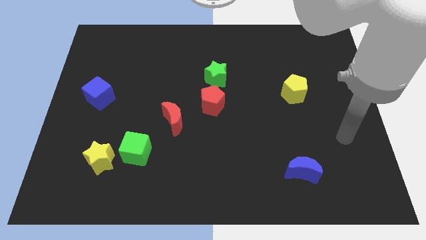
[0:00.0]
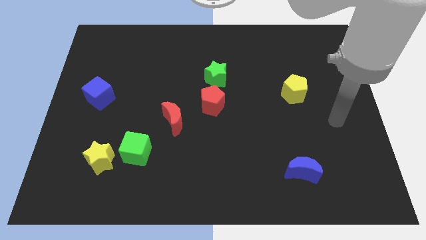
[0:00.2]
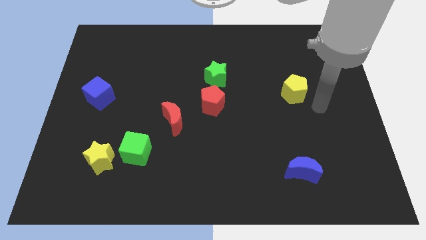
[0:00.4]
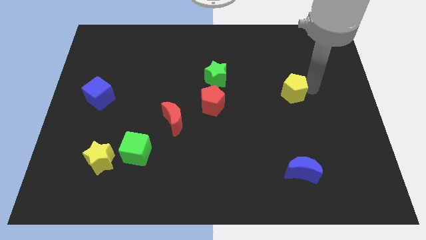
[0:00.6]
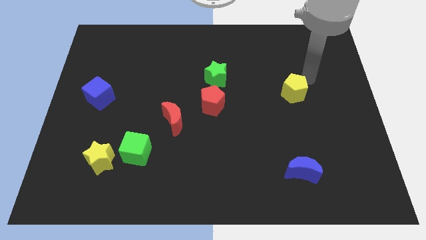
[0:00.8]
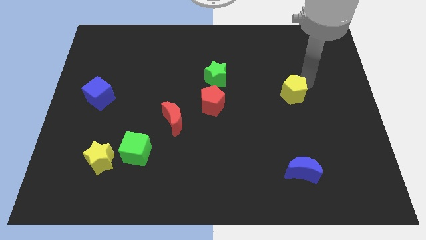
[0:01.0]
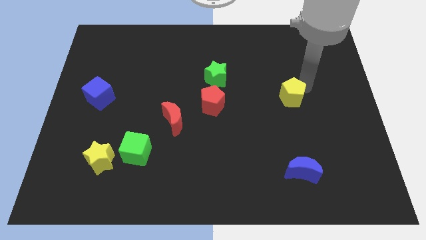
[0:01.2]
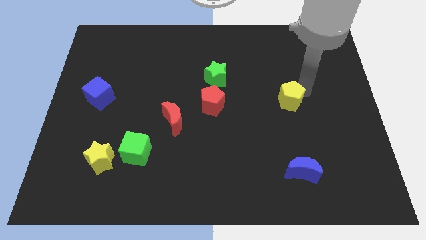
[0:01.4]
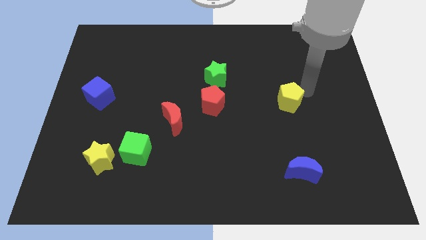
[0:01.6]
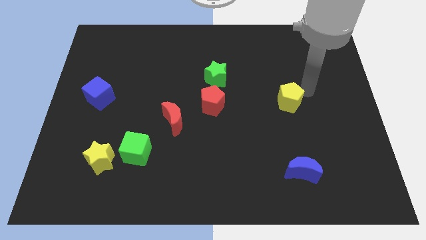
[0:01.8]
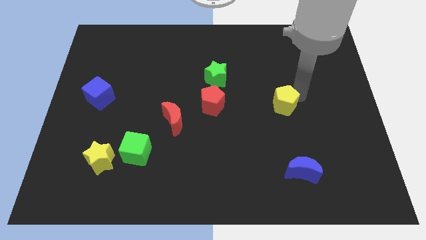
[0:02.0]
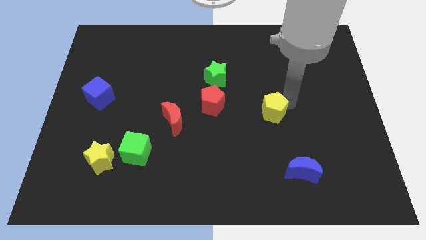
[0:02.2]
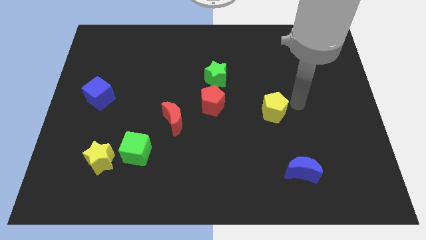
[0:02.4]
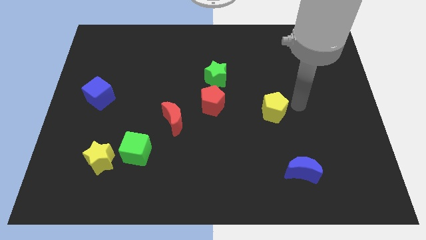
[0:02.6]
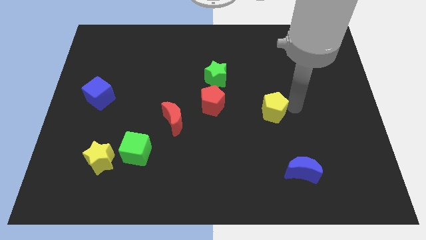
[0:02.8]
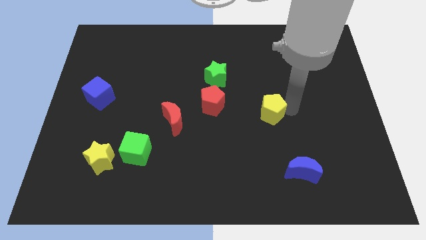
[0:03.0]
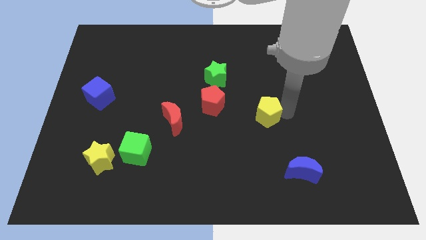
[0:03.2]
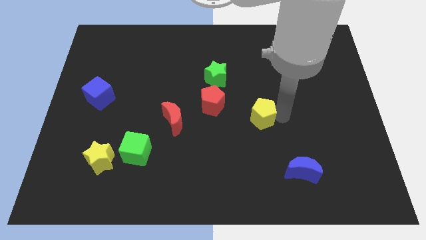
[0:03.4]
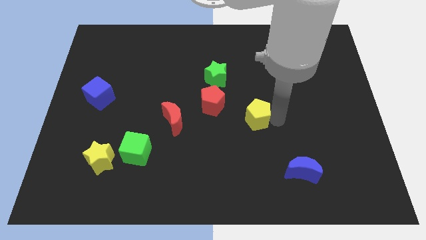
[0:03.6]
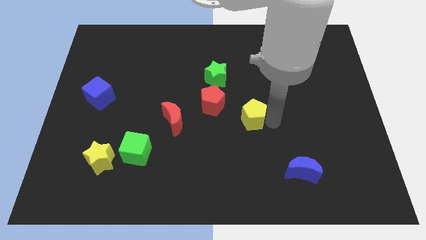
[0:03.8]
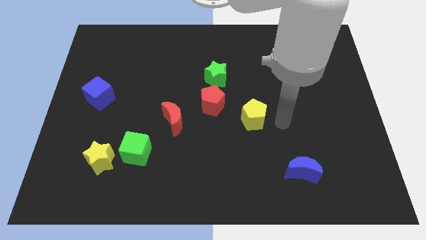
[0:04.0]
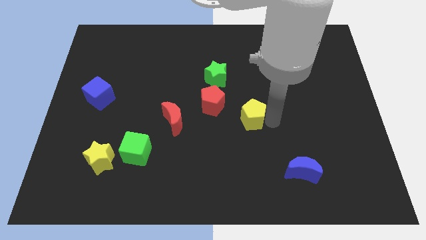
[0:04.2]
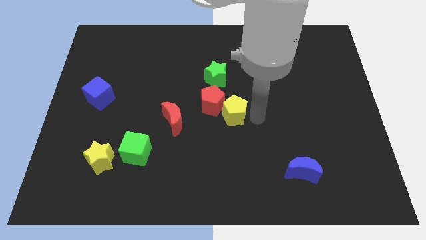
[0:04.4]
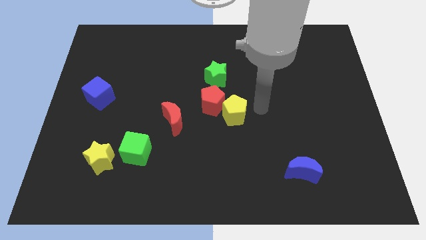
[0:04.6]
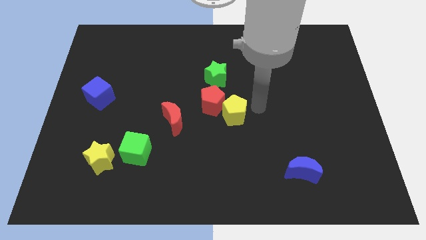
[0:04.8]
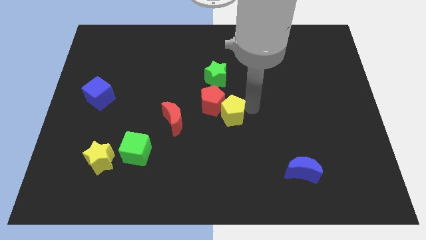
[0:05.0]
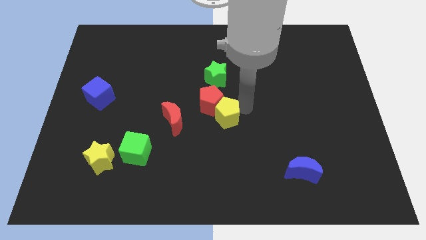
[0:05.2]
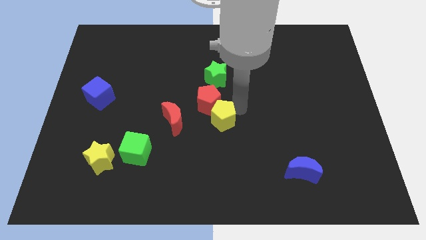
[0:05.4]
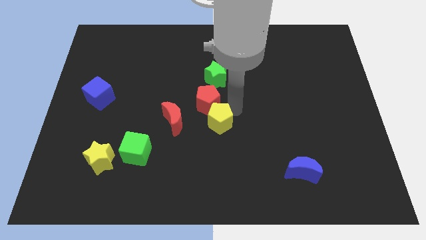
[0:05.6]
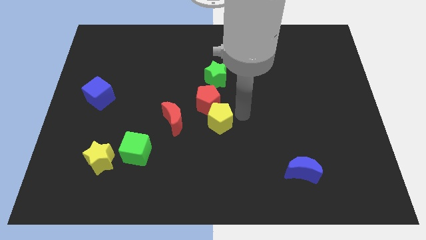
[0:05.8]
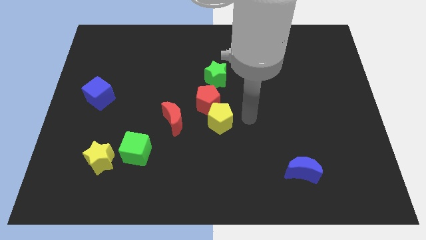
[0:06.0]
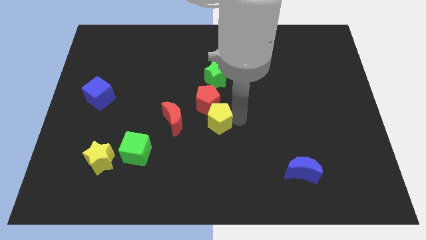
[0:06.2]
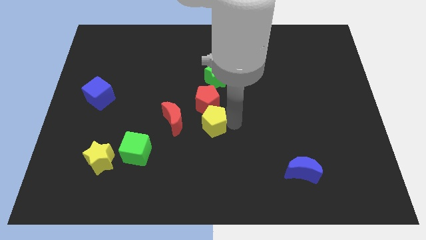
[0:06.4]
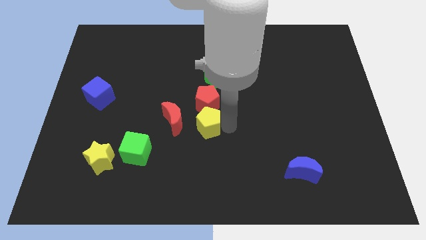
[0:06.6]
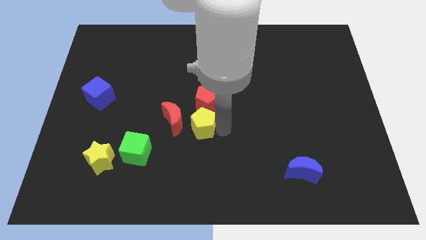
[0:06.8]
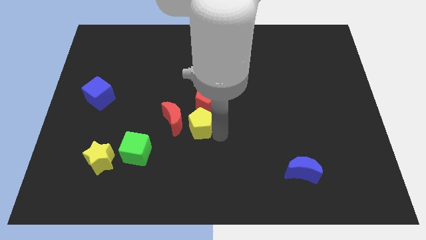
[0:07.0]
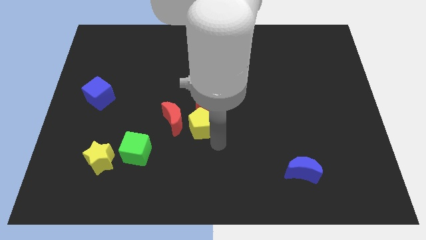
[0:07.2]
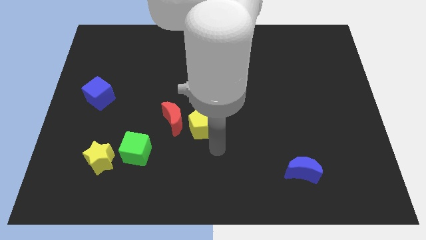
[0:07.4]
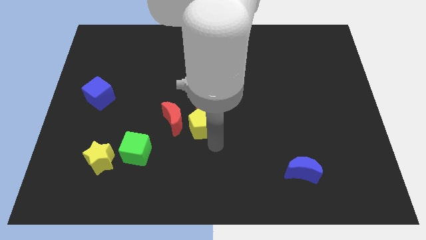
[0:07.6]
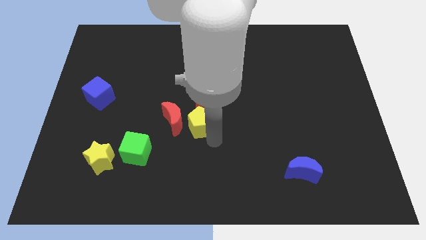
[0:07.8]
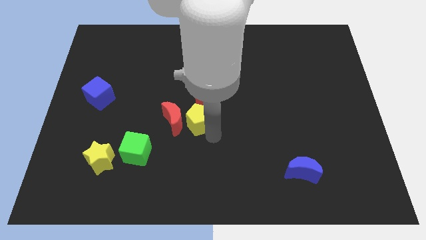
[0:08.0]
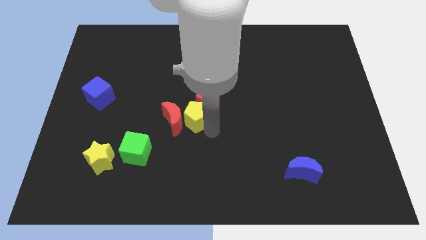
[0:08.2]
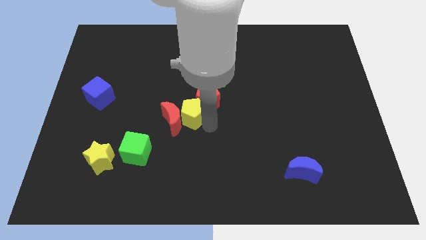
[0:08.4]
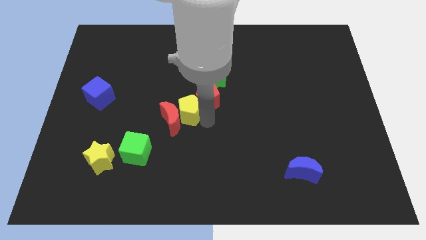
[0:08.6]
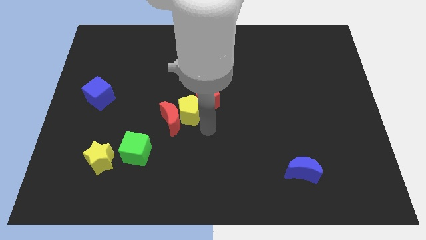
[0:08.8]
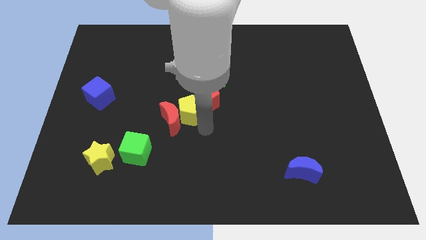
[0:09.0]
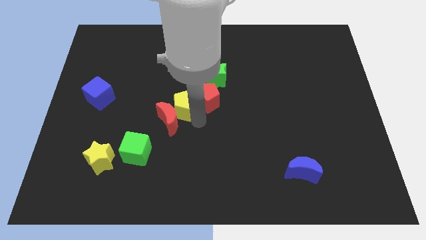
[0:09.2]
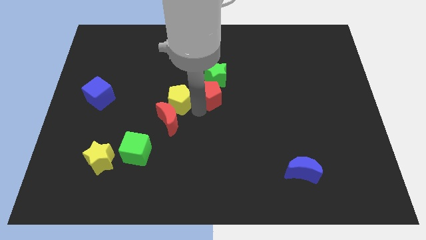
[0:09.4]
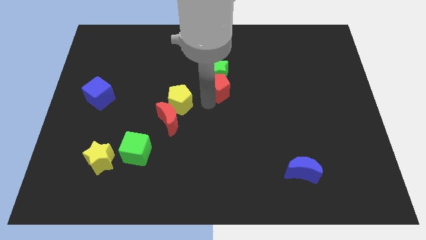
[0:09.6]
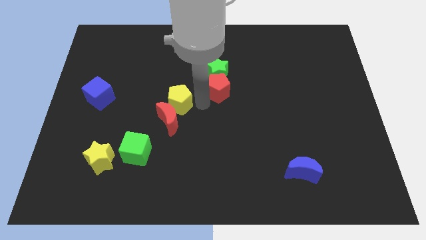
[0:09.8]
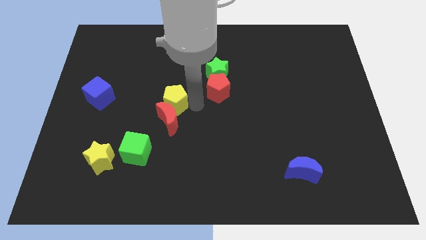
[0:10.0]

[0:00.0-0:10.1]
put the yellow pentagon diagonally up and to the left of the red moon

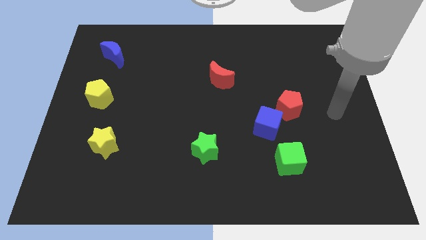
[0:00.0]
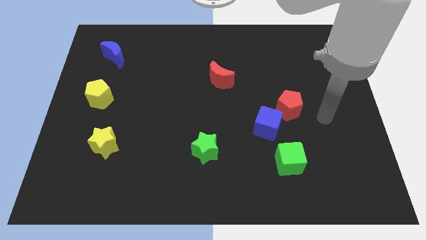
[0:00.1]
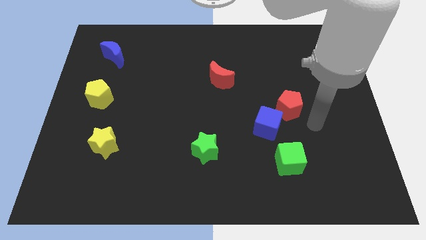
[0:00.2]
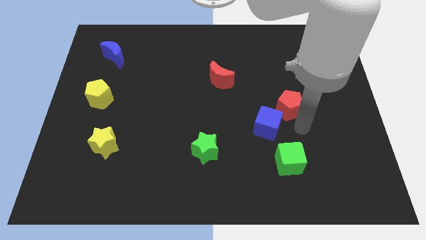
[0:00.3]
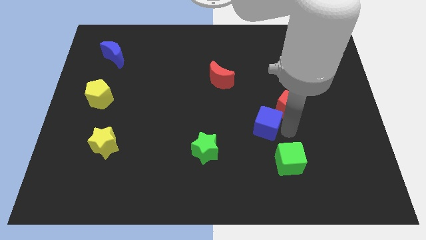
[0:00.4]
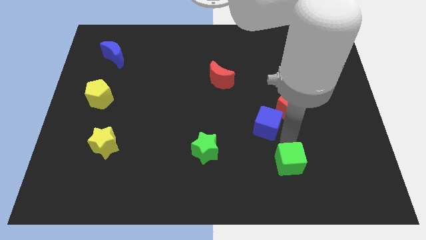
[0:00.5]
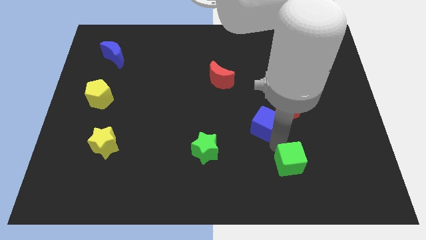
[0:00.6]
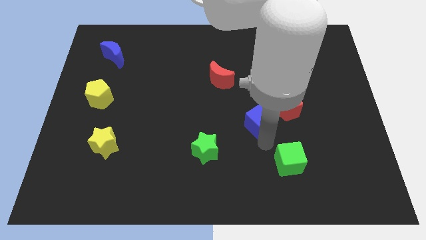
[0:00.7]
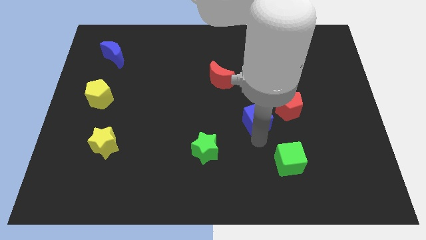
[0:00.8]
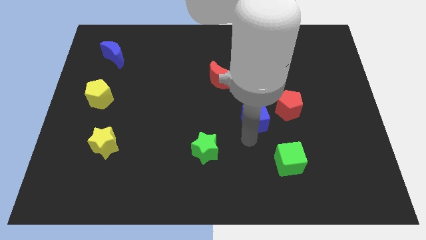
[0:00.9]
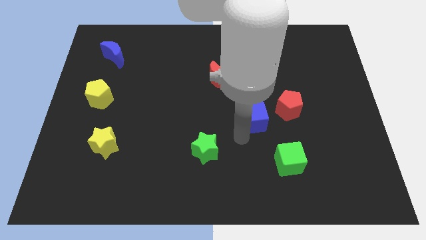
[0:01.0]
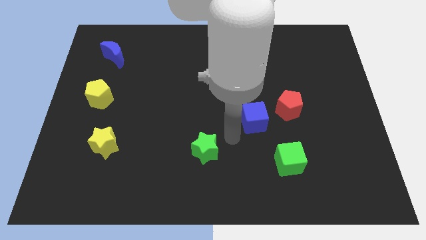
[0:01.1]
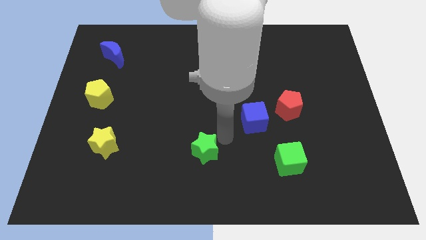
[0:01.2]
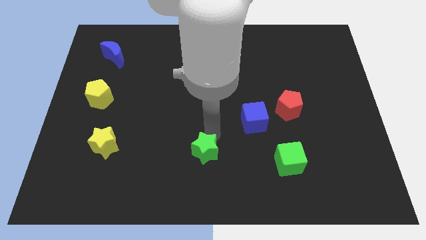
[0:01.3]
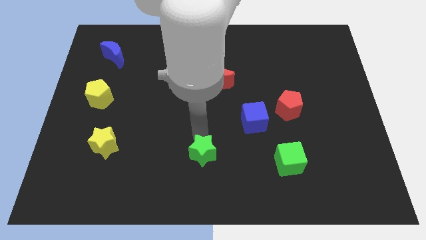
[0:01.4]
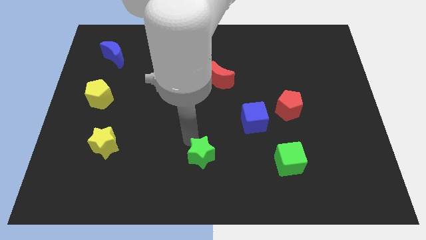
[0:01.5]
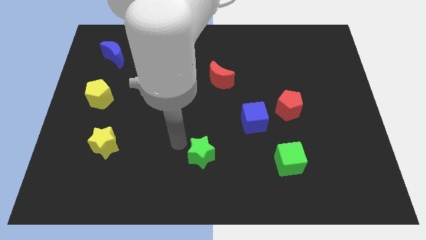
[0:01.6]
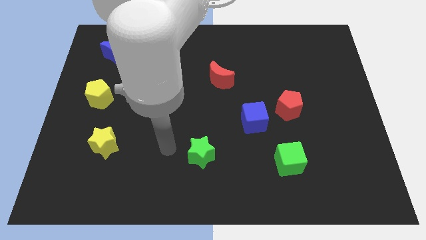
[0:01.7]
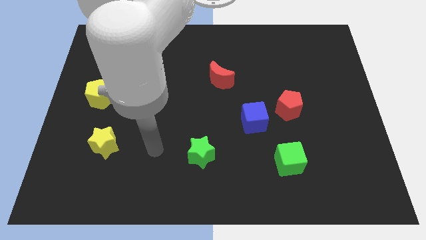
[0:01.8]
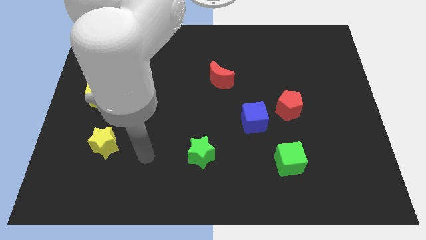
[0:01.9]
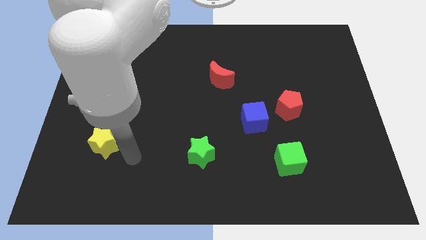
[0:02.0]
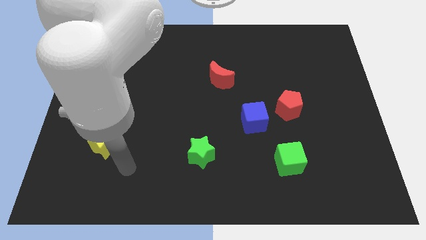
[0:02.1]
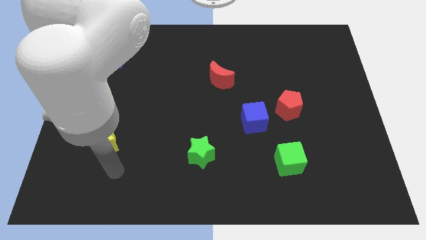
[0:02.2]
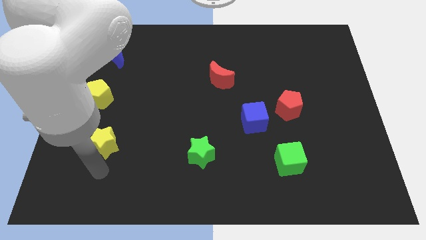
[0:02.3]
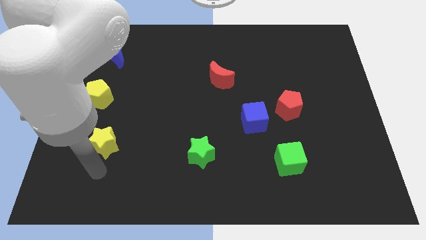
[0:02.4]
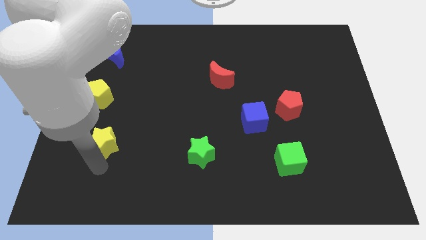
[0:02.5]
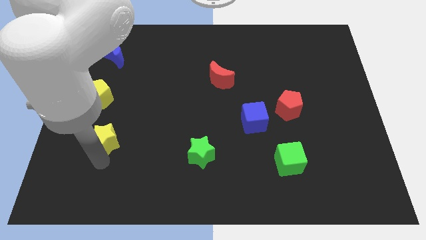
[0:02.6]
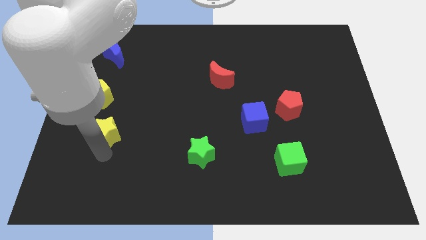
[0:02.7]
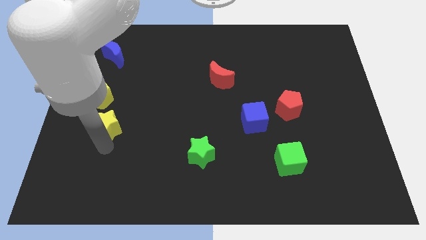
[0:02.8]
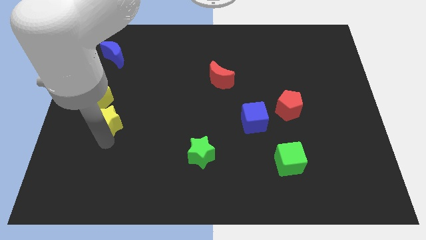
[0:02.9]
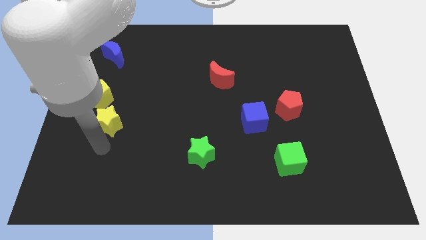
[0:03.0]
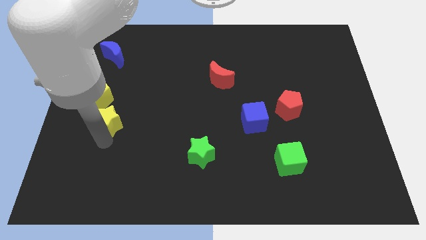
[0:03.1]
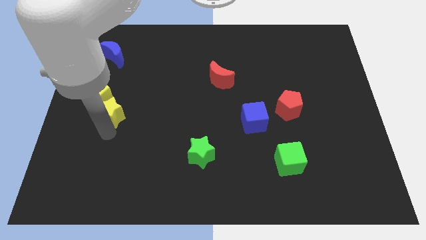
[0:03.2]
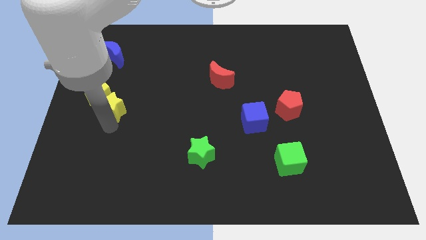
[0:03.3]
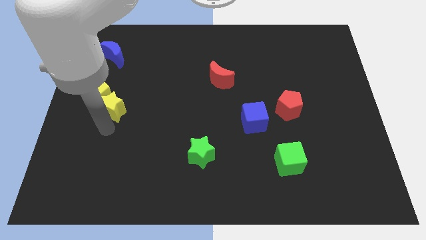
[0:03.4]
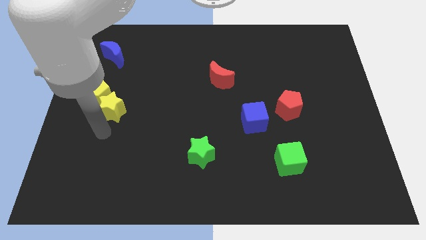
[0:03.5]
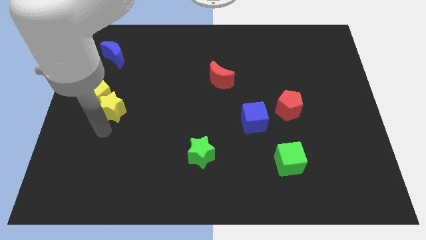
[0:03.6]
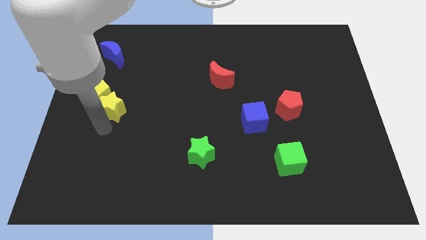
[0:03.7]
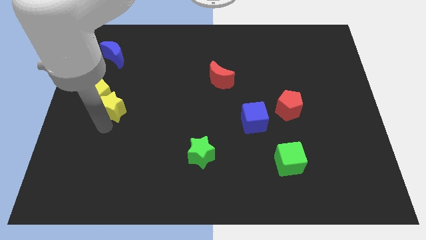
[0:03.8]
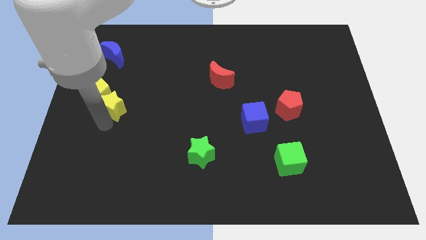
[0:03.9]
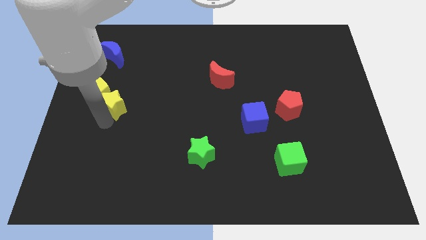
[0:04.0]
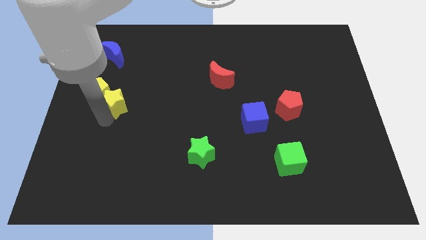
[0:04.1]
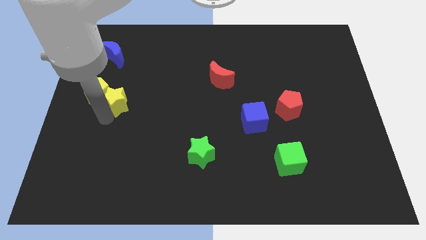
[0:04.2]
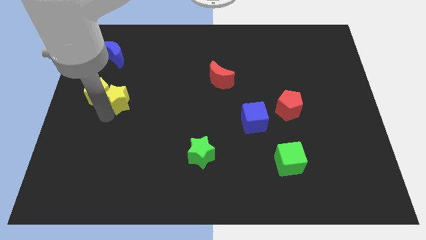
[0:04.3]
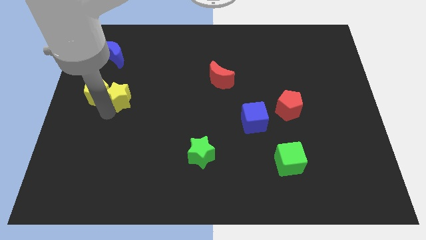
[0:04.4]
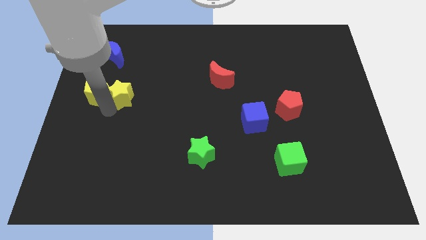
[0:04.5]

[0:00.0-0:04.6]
slide the yellow star below the blue moon
